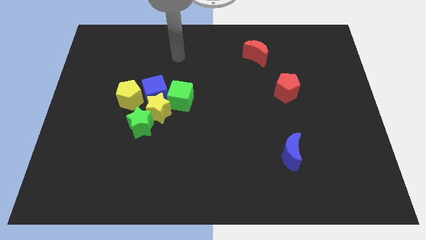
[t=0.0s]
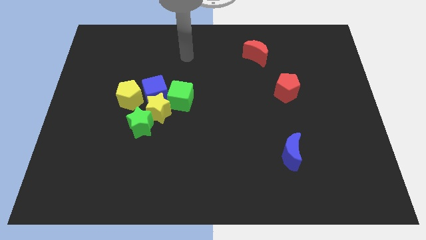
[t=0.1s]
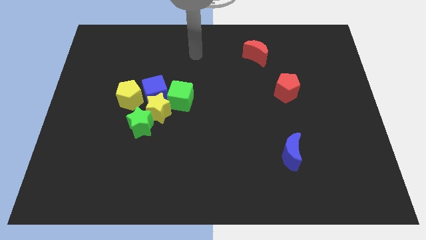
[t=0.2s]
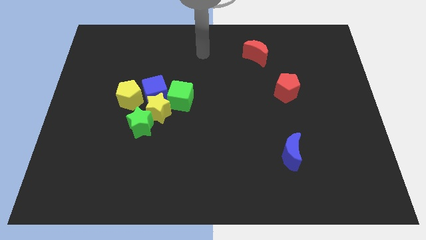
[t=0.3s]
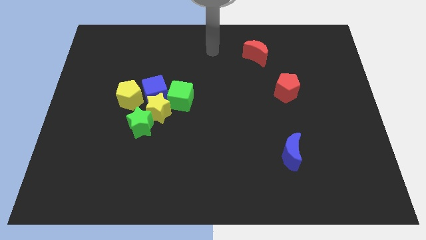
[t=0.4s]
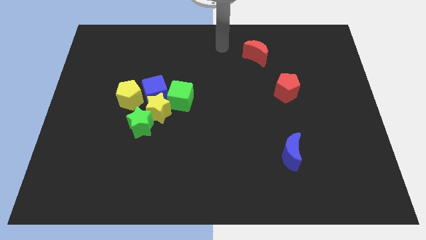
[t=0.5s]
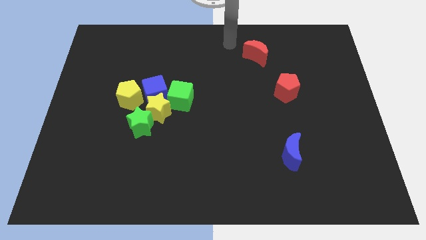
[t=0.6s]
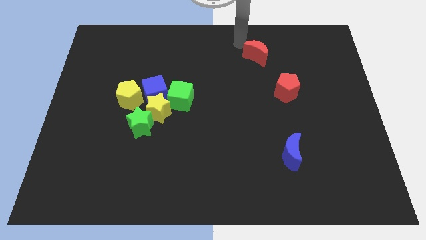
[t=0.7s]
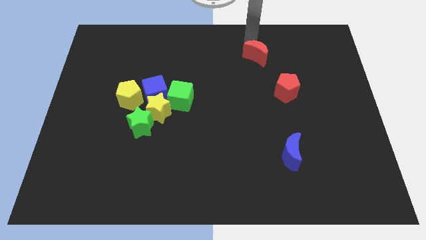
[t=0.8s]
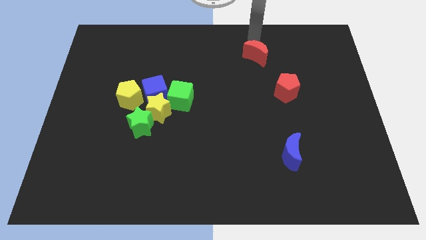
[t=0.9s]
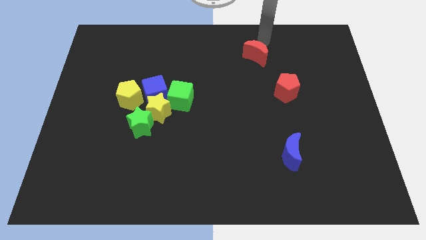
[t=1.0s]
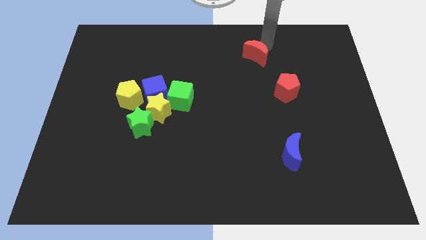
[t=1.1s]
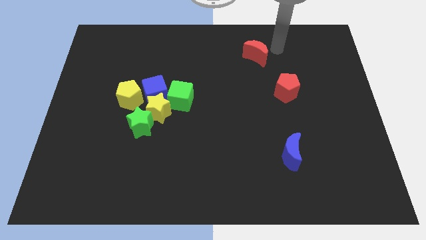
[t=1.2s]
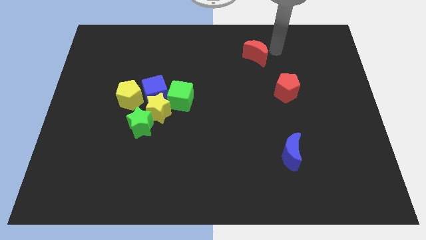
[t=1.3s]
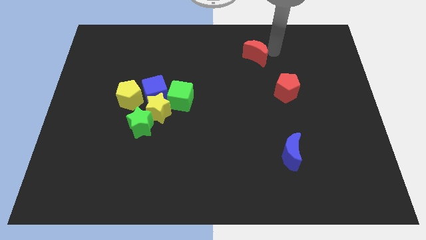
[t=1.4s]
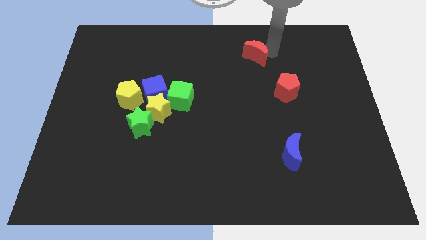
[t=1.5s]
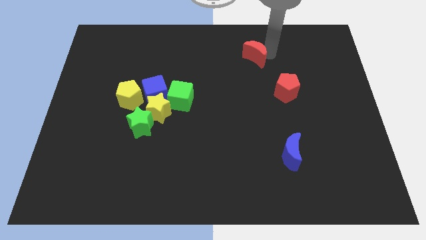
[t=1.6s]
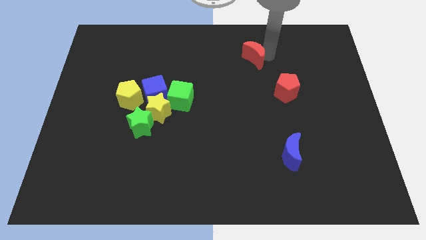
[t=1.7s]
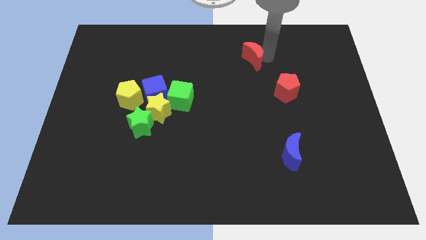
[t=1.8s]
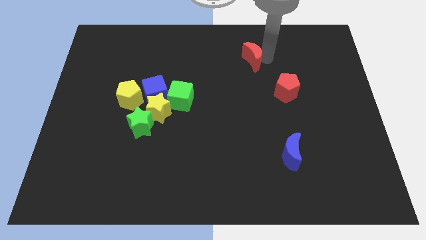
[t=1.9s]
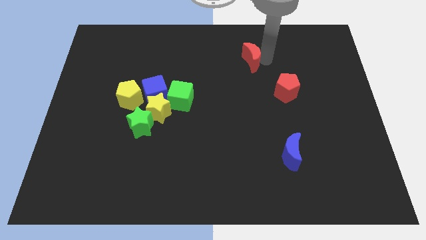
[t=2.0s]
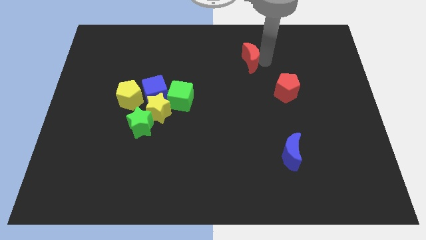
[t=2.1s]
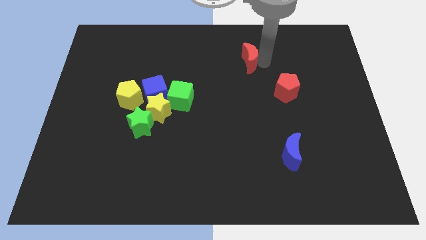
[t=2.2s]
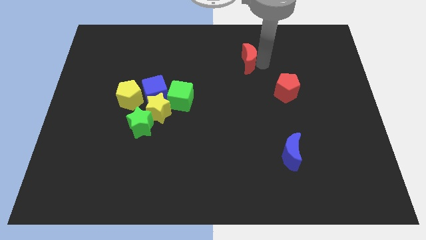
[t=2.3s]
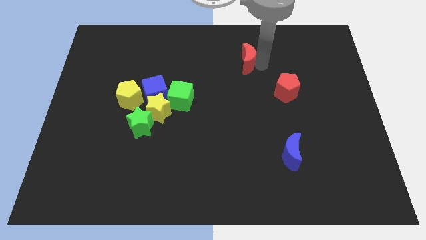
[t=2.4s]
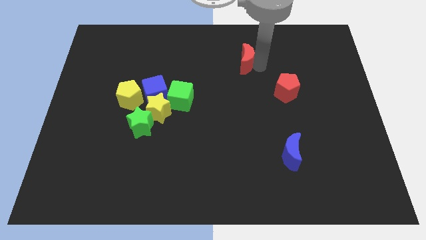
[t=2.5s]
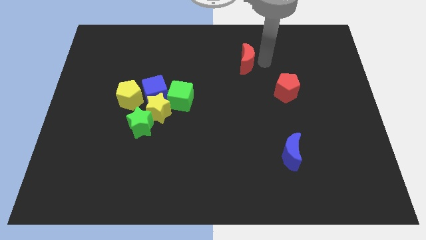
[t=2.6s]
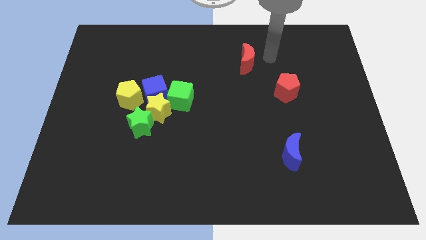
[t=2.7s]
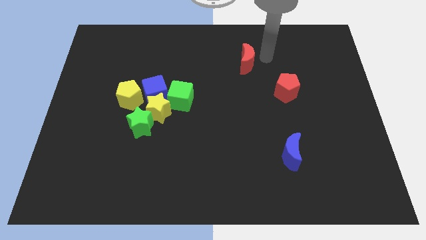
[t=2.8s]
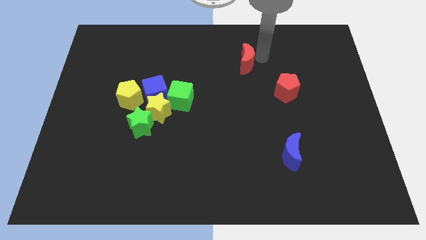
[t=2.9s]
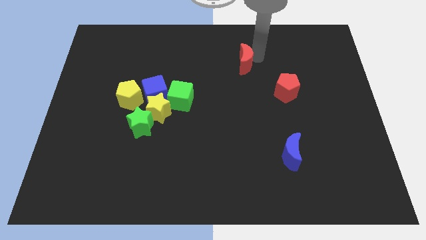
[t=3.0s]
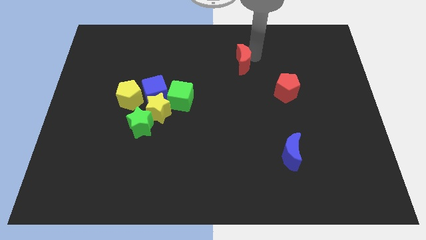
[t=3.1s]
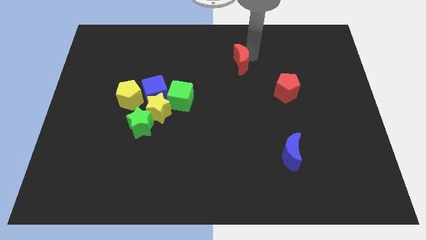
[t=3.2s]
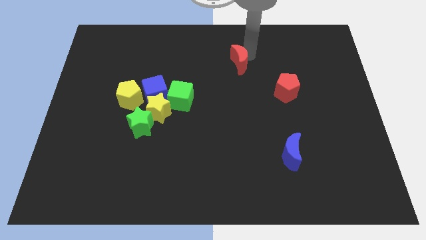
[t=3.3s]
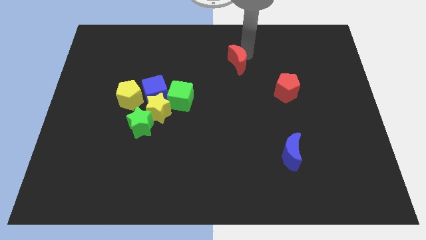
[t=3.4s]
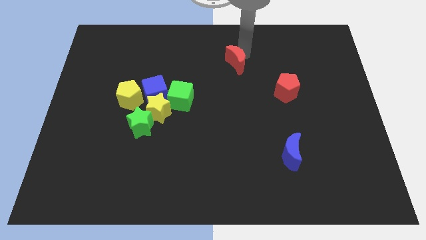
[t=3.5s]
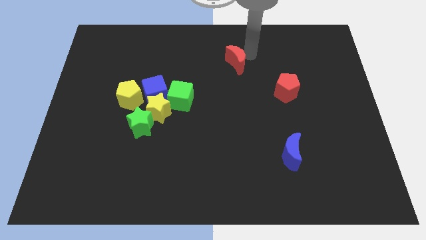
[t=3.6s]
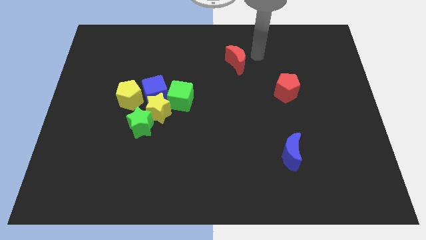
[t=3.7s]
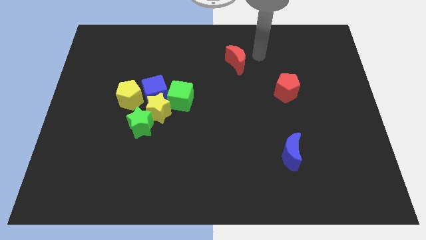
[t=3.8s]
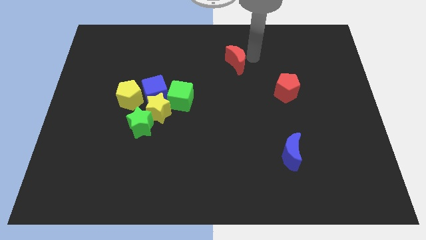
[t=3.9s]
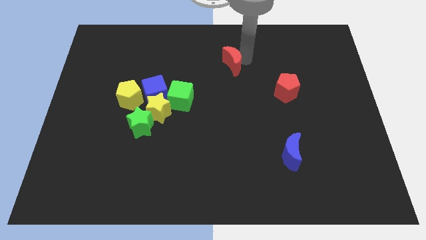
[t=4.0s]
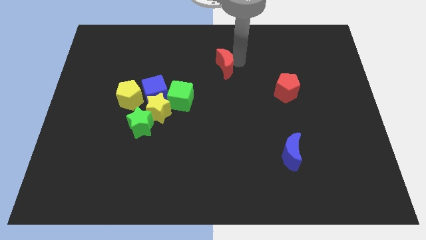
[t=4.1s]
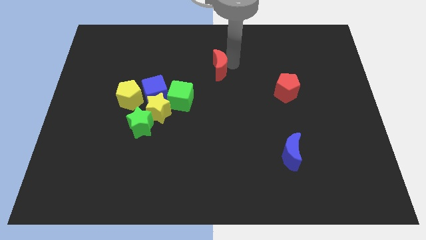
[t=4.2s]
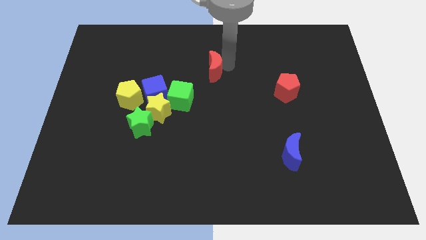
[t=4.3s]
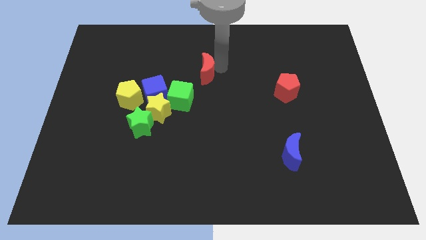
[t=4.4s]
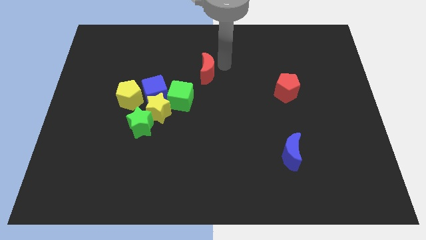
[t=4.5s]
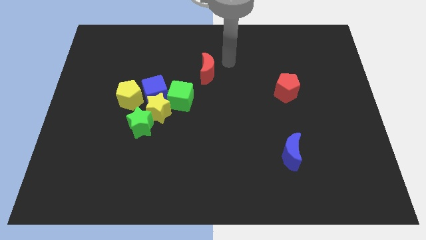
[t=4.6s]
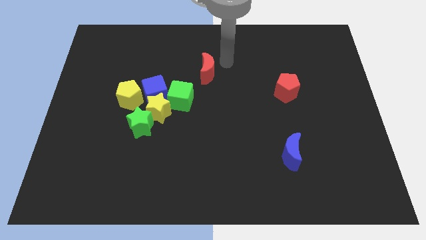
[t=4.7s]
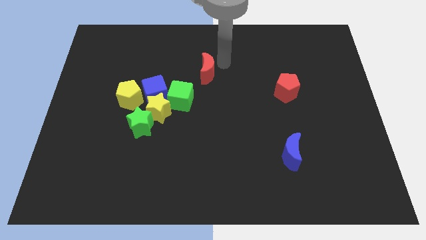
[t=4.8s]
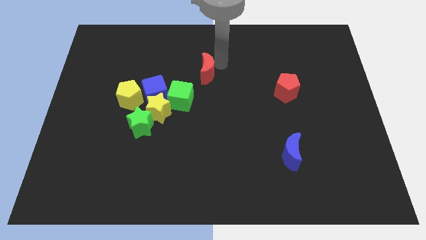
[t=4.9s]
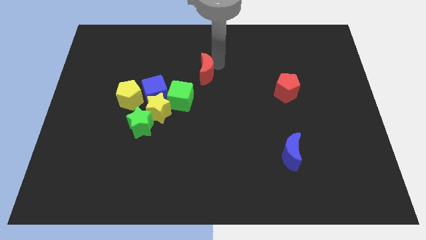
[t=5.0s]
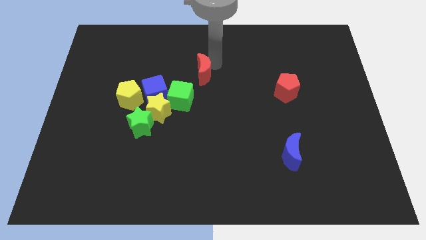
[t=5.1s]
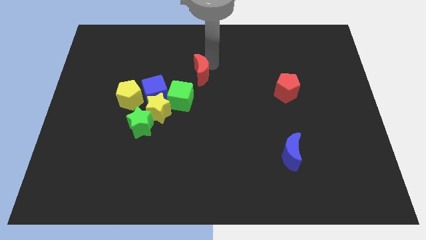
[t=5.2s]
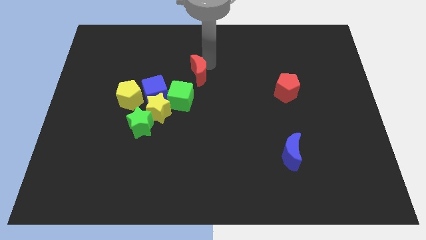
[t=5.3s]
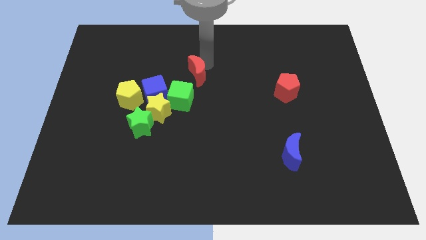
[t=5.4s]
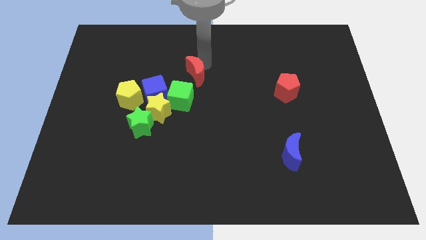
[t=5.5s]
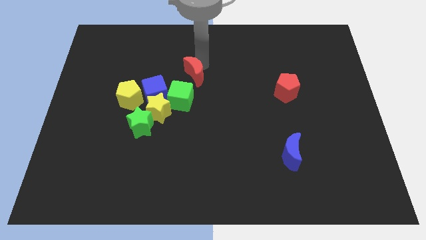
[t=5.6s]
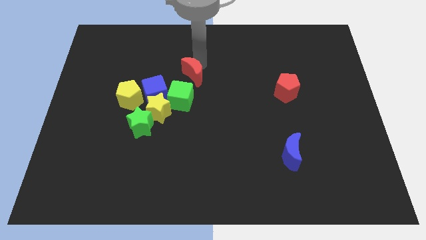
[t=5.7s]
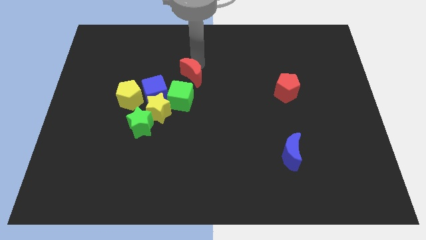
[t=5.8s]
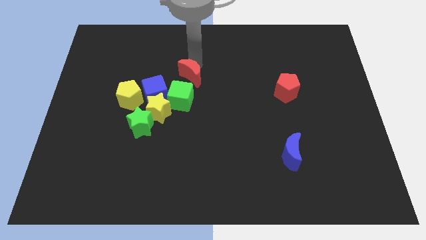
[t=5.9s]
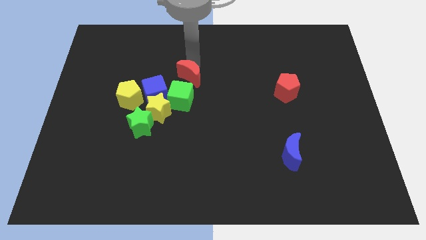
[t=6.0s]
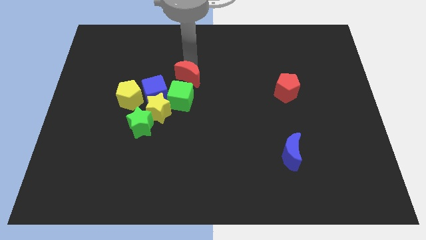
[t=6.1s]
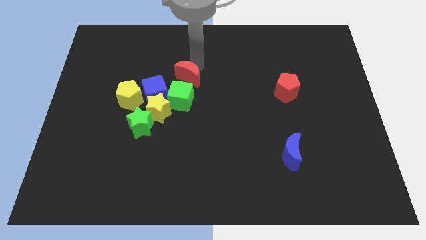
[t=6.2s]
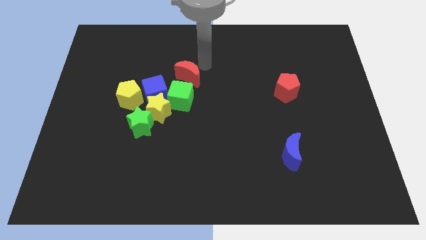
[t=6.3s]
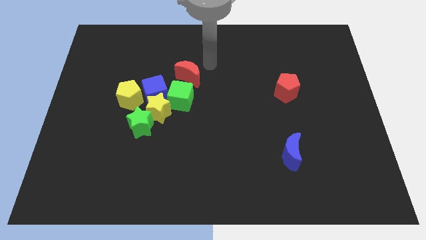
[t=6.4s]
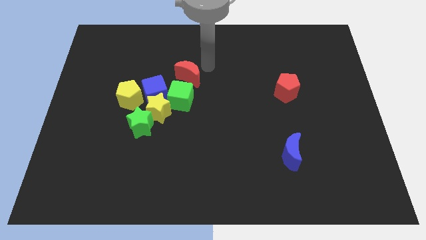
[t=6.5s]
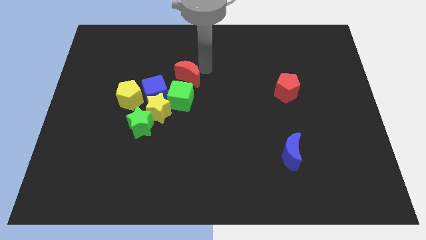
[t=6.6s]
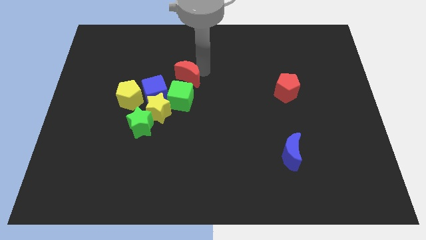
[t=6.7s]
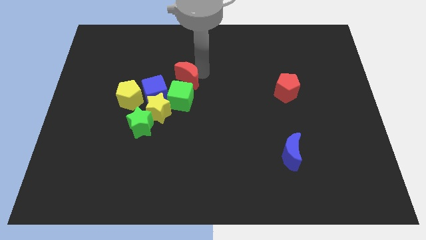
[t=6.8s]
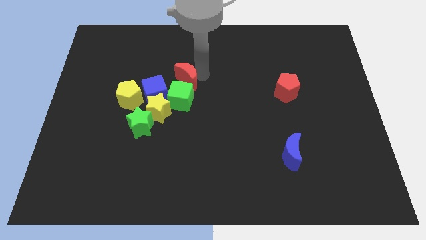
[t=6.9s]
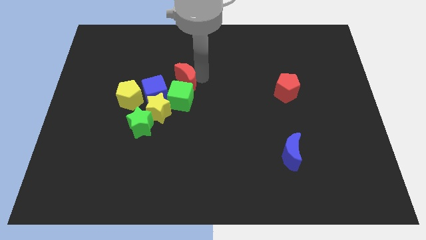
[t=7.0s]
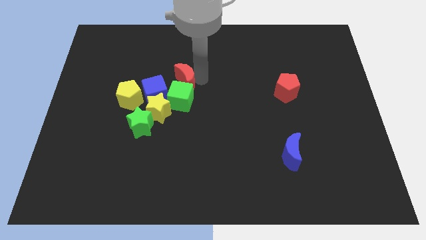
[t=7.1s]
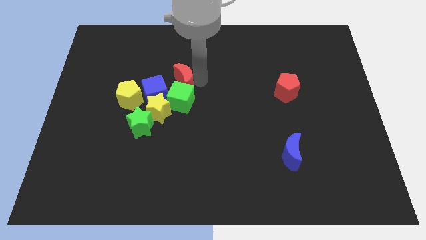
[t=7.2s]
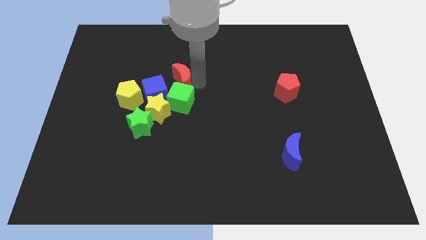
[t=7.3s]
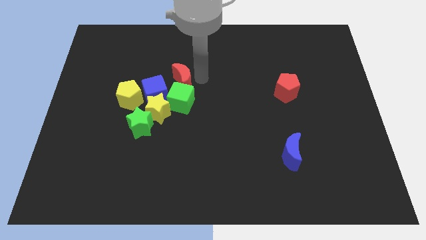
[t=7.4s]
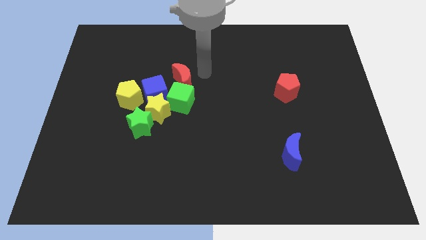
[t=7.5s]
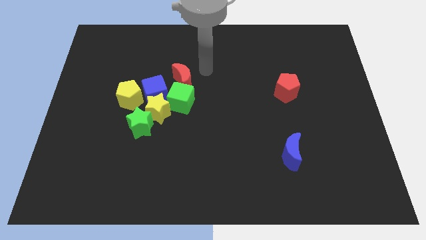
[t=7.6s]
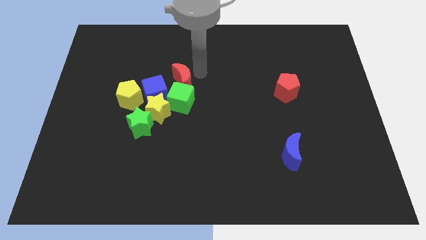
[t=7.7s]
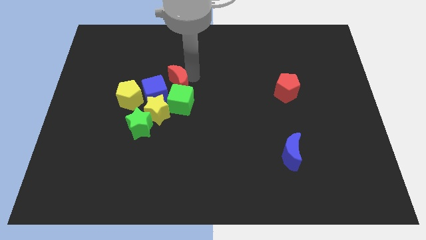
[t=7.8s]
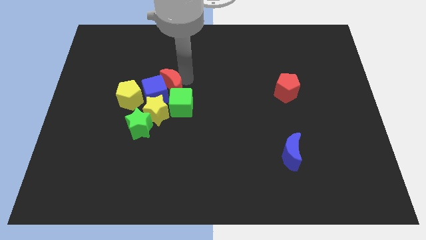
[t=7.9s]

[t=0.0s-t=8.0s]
slide the red moon next to the blue cube
